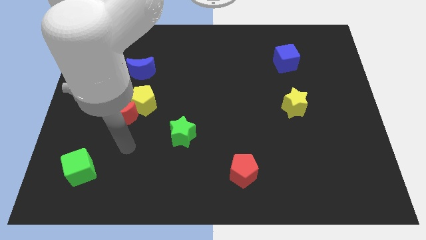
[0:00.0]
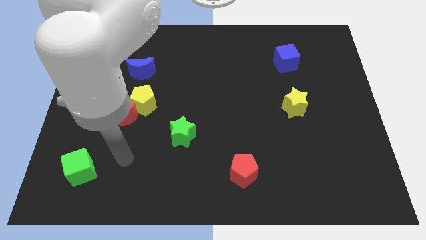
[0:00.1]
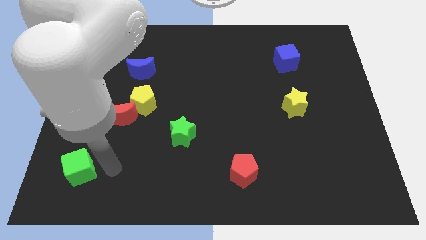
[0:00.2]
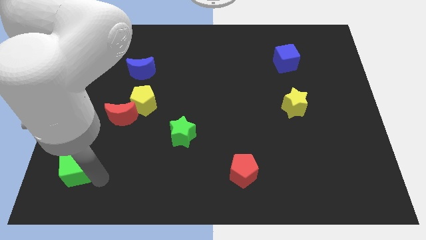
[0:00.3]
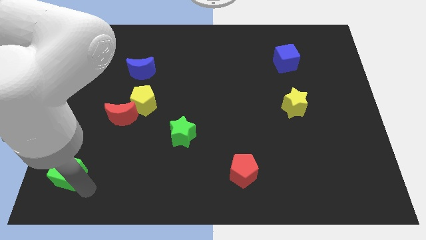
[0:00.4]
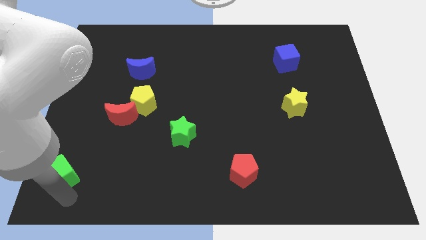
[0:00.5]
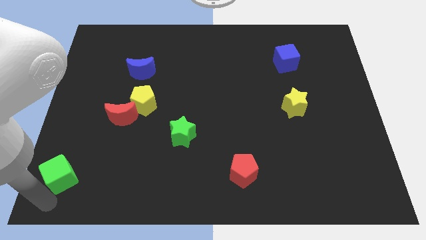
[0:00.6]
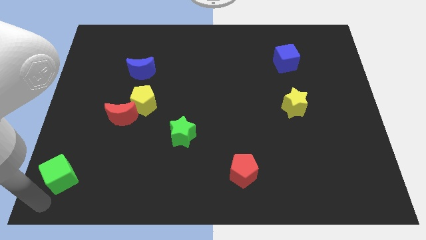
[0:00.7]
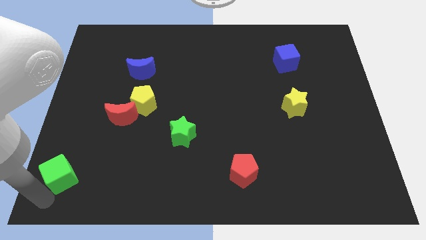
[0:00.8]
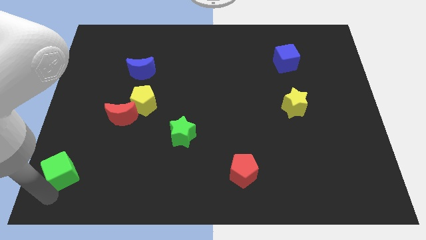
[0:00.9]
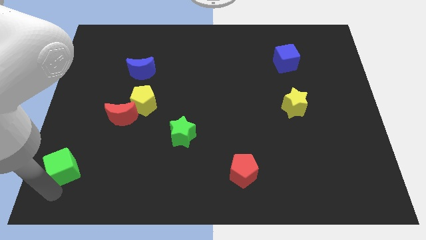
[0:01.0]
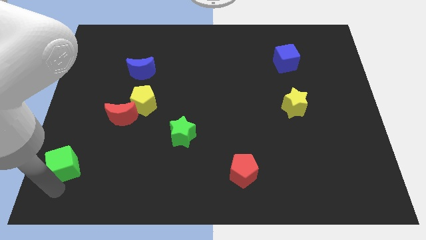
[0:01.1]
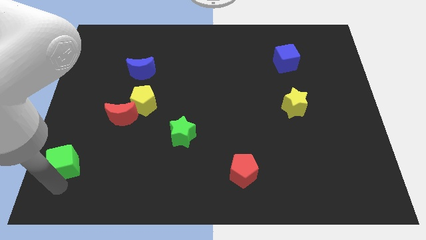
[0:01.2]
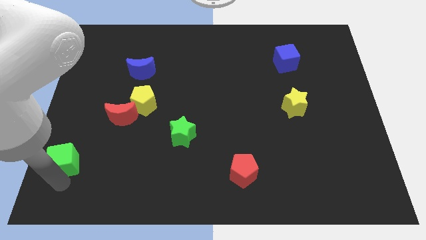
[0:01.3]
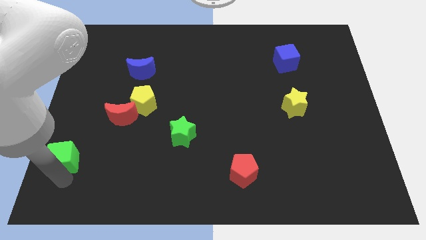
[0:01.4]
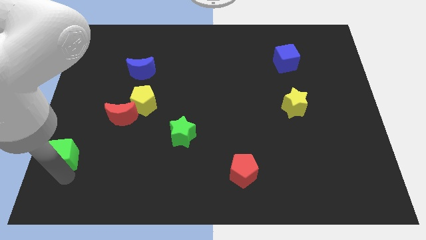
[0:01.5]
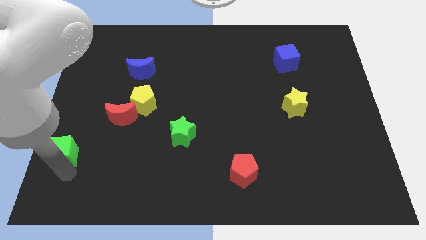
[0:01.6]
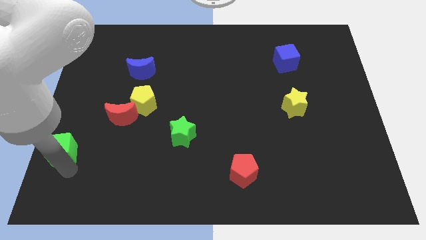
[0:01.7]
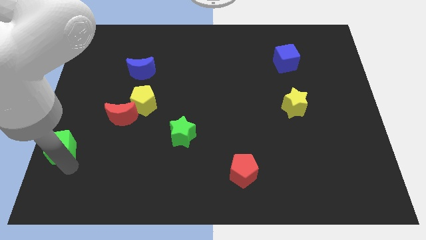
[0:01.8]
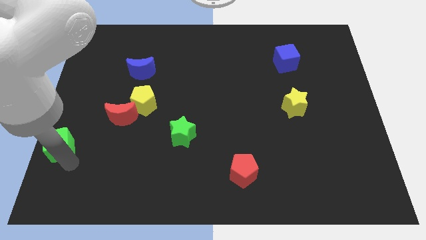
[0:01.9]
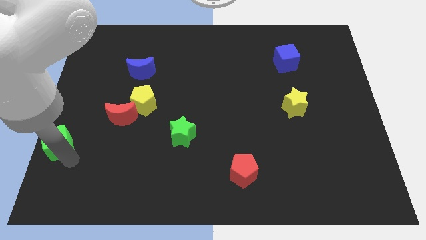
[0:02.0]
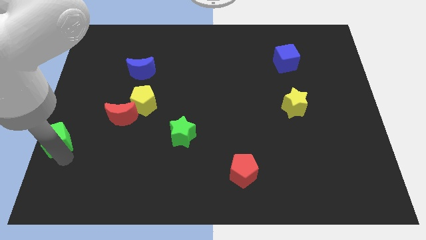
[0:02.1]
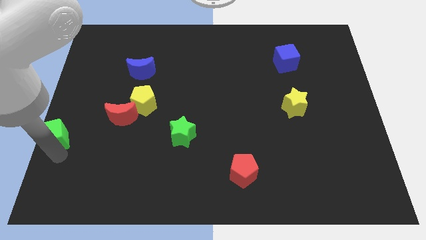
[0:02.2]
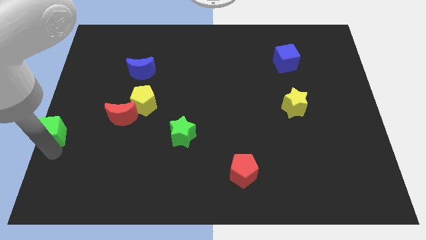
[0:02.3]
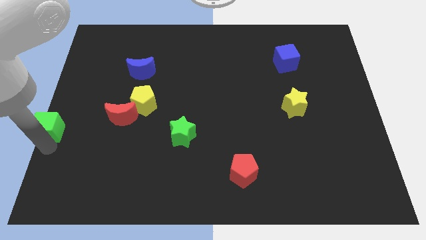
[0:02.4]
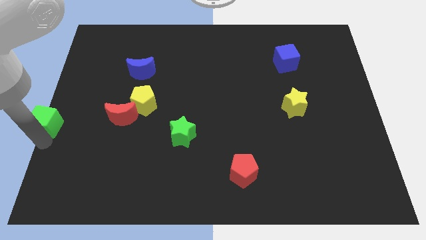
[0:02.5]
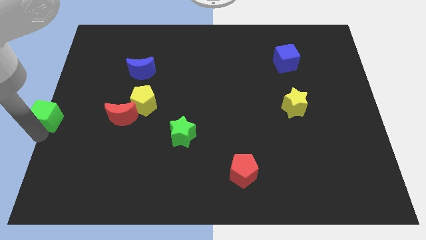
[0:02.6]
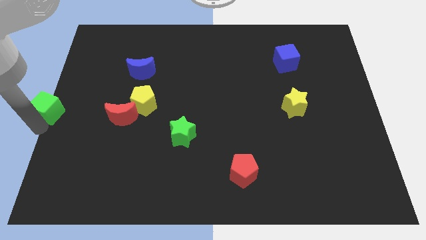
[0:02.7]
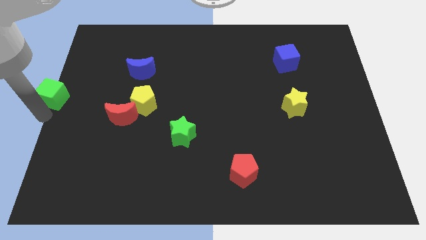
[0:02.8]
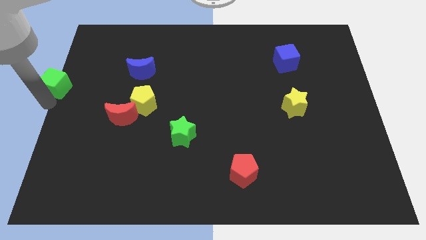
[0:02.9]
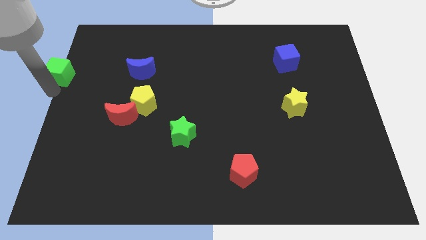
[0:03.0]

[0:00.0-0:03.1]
slide the green cube up

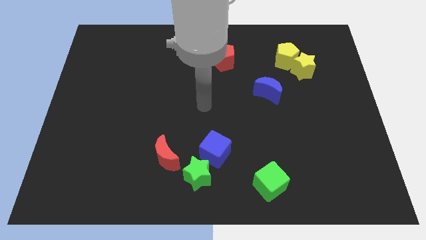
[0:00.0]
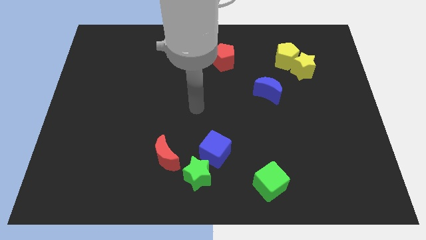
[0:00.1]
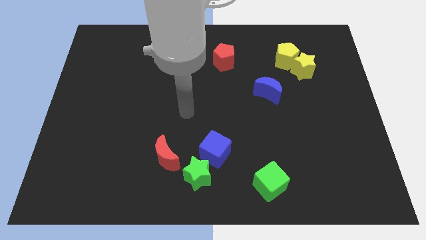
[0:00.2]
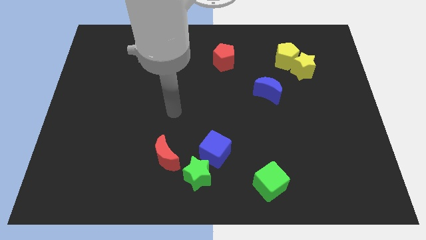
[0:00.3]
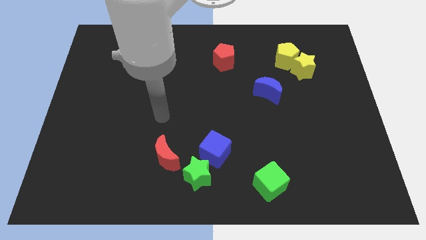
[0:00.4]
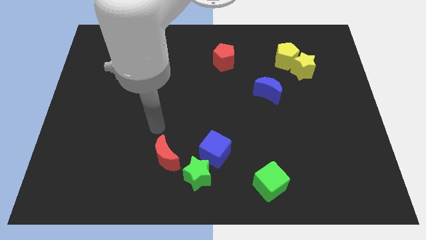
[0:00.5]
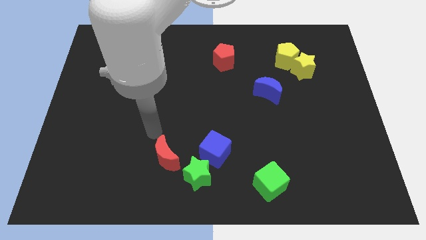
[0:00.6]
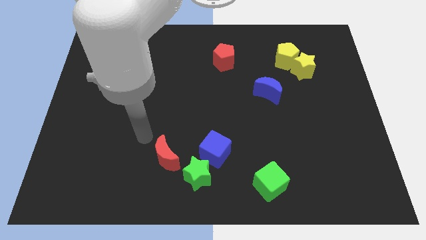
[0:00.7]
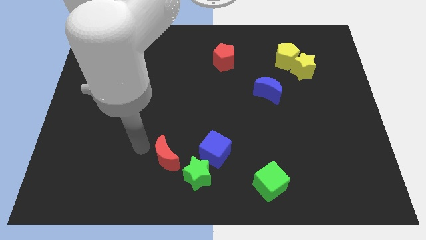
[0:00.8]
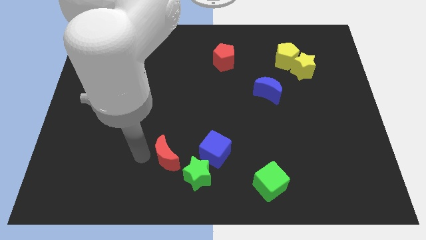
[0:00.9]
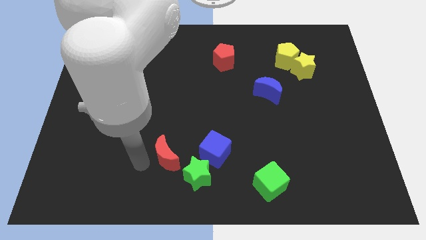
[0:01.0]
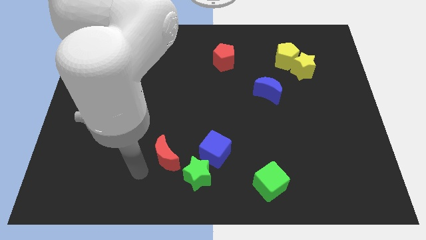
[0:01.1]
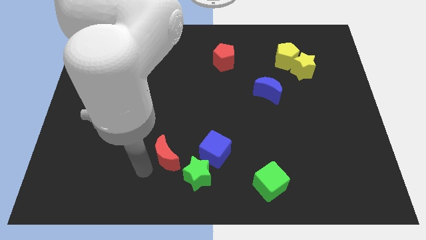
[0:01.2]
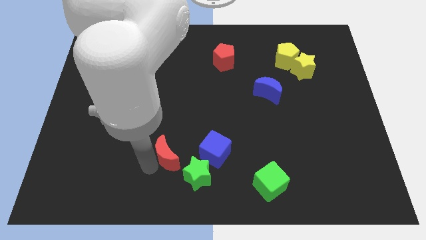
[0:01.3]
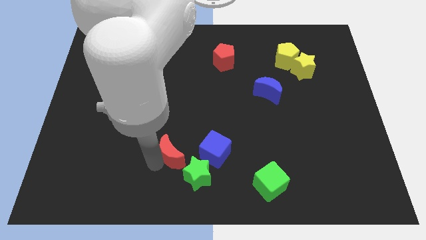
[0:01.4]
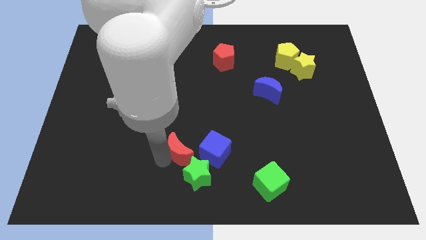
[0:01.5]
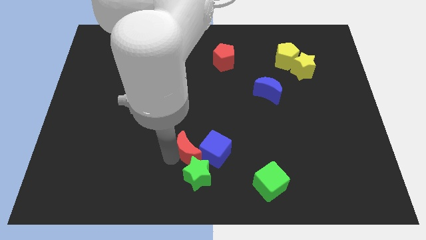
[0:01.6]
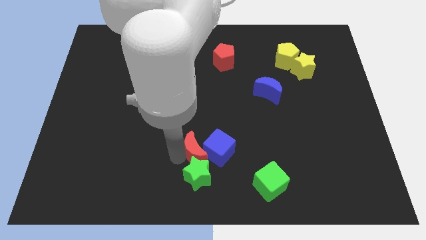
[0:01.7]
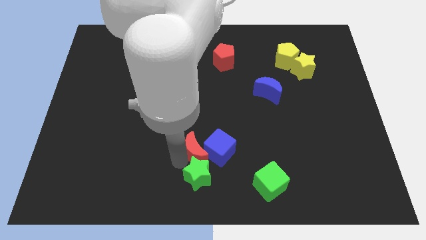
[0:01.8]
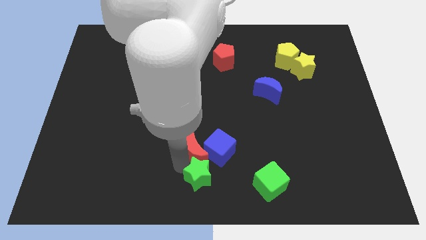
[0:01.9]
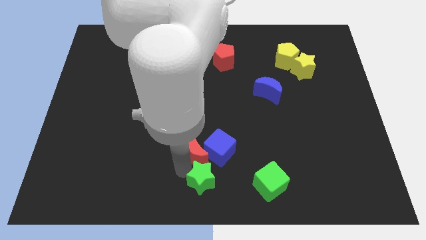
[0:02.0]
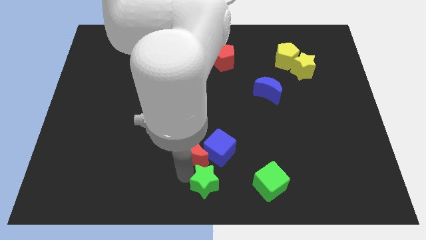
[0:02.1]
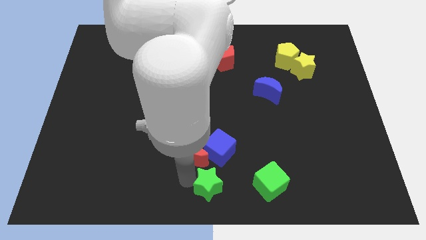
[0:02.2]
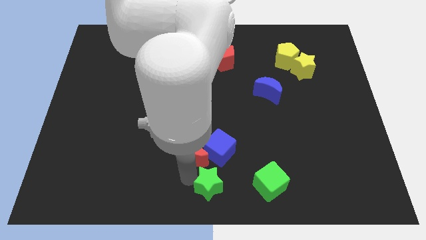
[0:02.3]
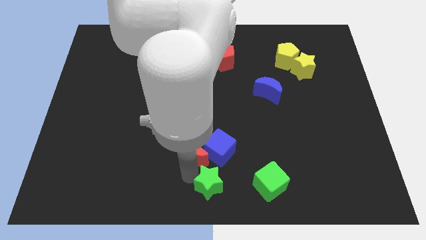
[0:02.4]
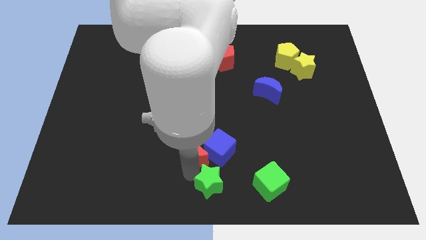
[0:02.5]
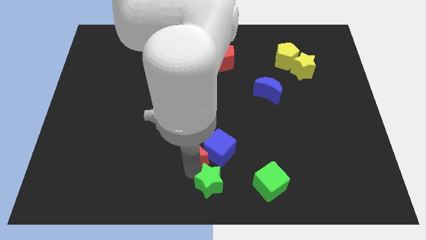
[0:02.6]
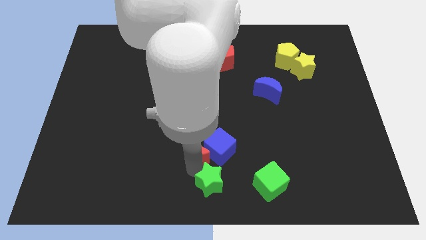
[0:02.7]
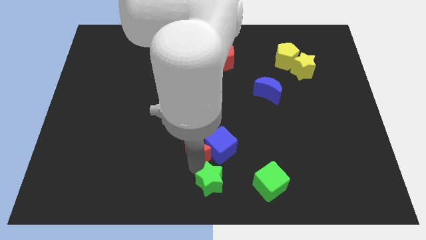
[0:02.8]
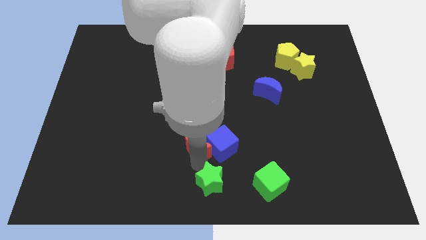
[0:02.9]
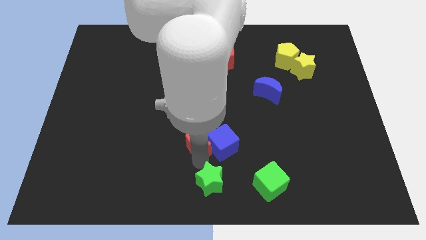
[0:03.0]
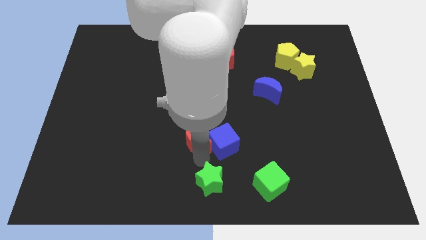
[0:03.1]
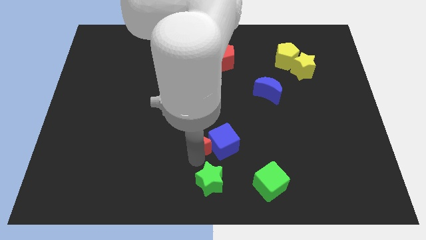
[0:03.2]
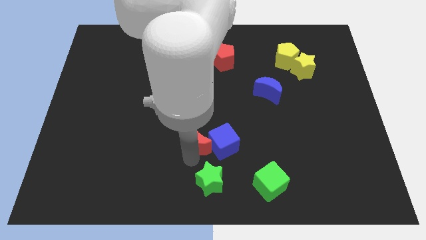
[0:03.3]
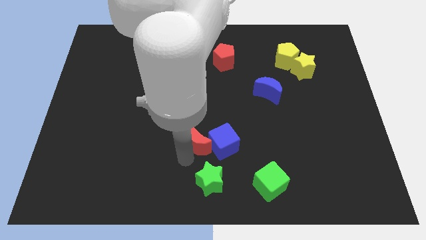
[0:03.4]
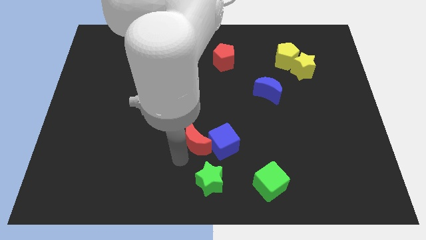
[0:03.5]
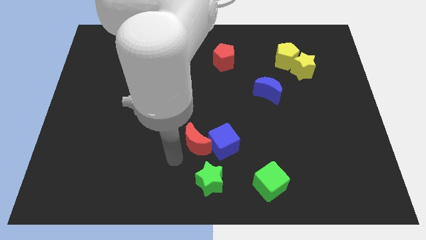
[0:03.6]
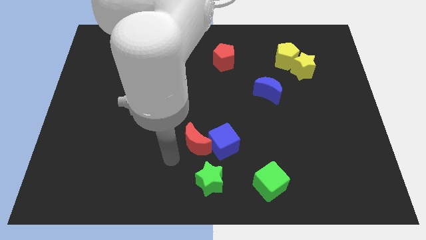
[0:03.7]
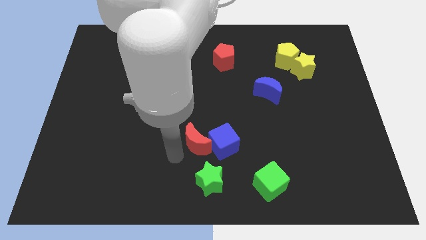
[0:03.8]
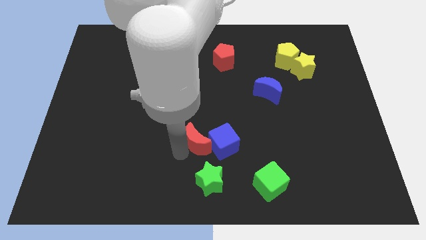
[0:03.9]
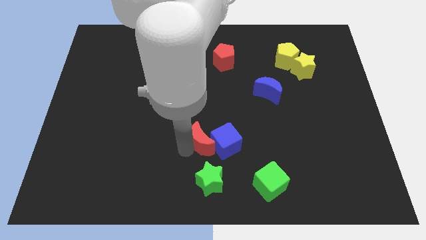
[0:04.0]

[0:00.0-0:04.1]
slide the red moon a little bit to the right

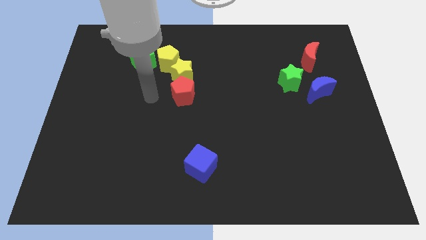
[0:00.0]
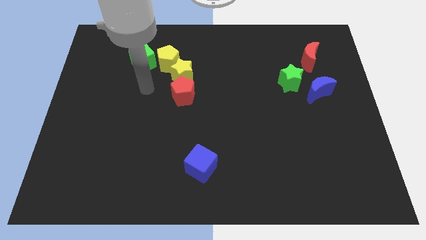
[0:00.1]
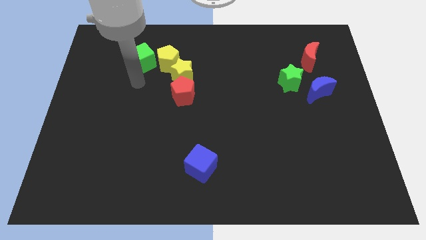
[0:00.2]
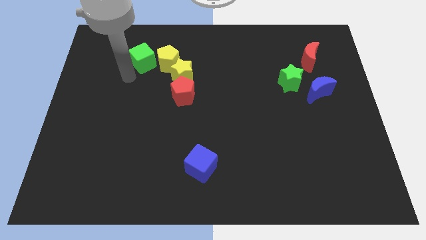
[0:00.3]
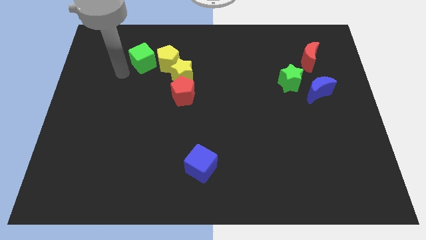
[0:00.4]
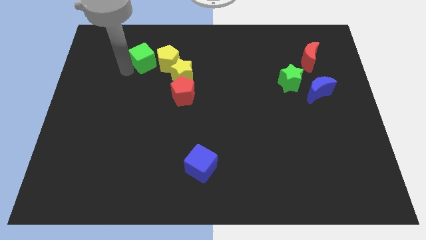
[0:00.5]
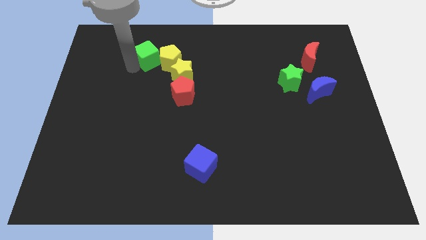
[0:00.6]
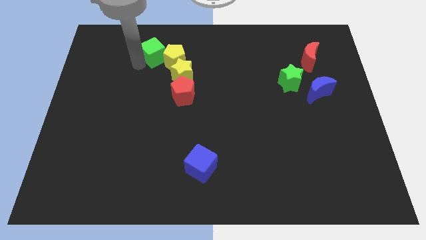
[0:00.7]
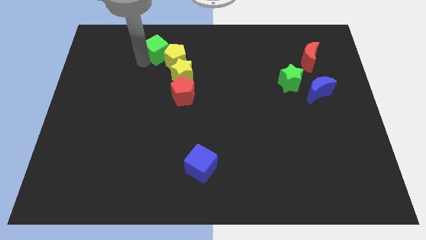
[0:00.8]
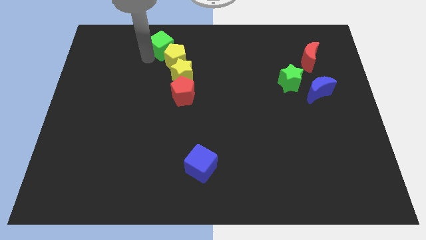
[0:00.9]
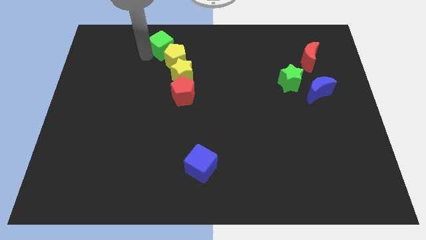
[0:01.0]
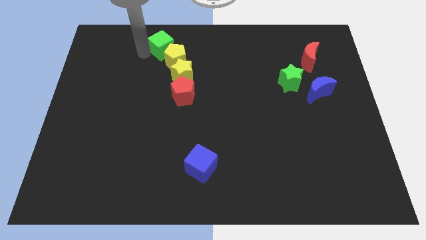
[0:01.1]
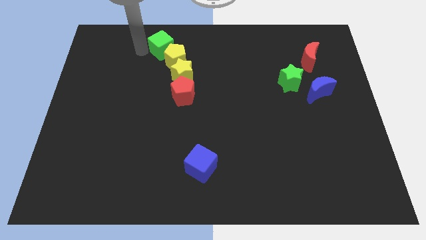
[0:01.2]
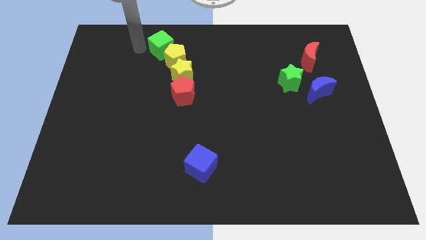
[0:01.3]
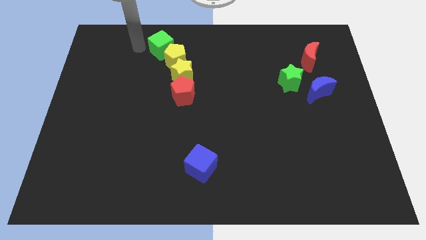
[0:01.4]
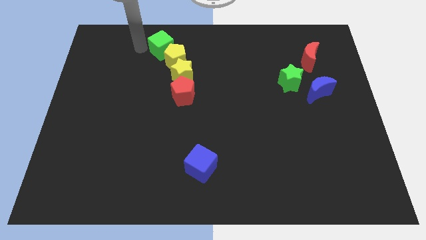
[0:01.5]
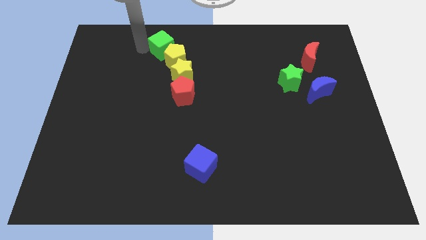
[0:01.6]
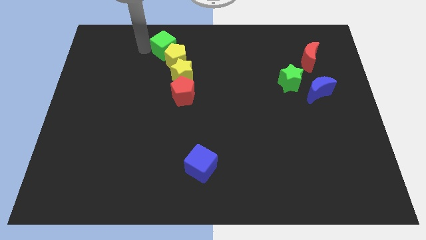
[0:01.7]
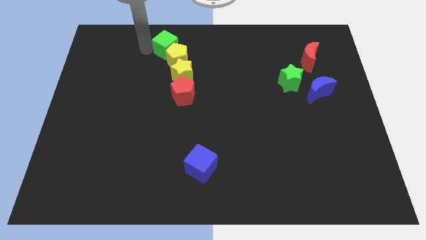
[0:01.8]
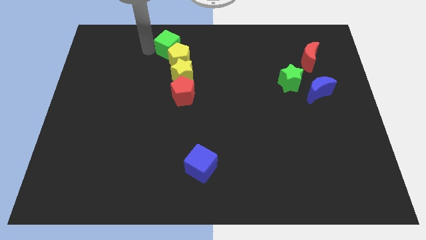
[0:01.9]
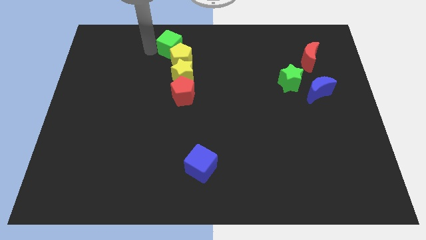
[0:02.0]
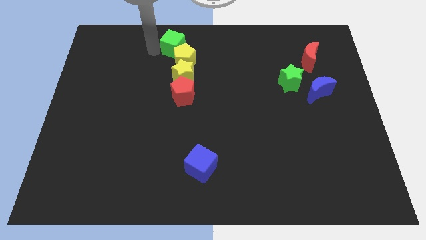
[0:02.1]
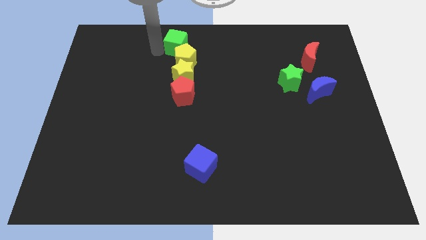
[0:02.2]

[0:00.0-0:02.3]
move the green cube right a bit
